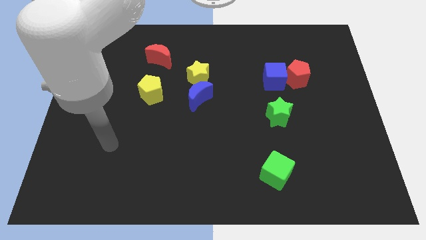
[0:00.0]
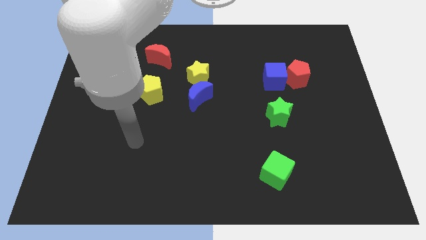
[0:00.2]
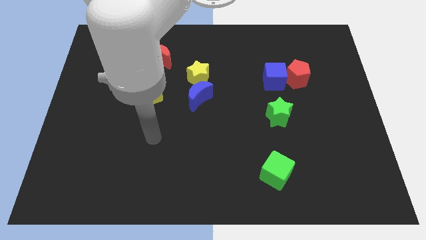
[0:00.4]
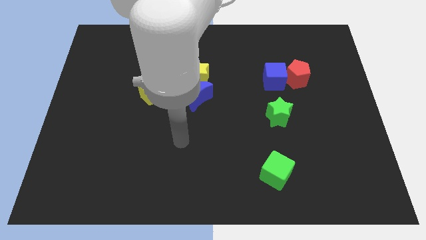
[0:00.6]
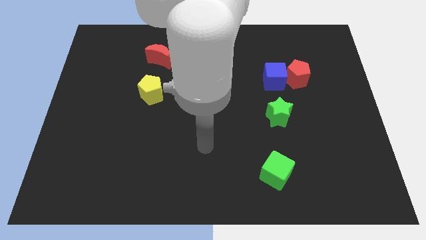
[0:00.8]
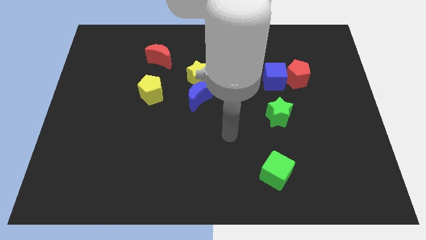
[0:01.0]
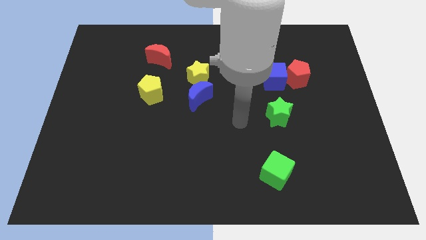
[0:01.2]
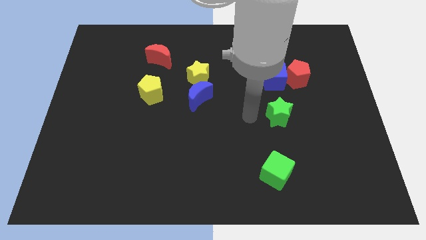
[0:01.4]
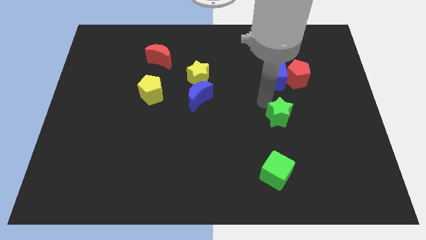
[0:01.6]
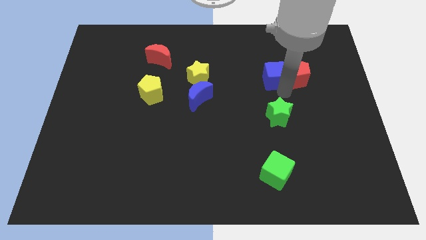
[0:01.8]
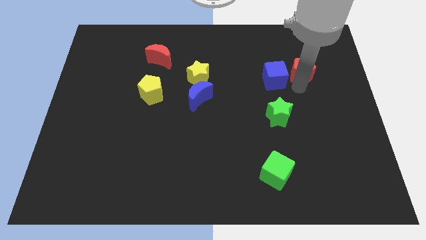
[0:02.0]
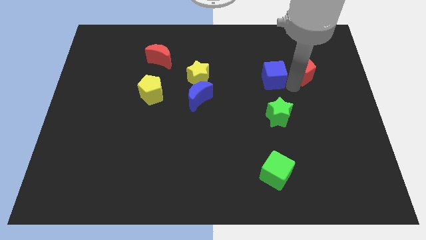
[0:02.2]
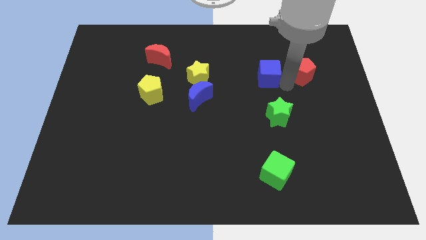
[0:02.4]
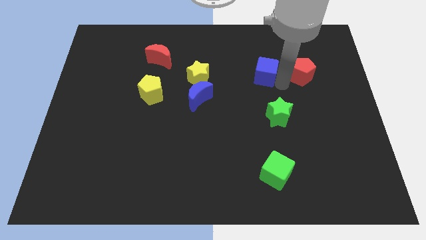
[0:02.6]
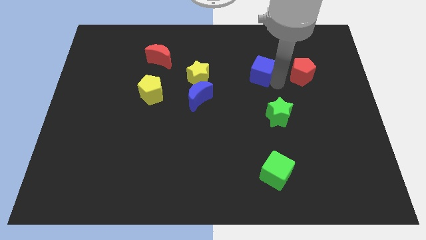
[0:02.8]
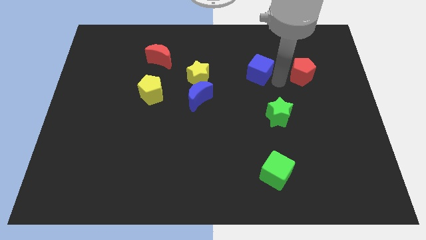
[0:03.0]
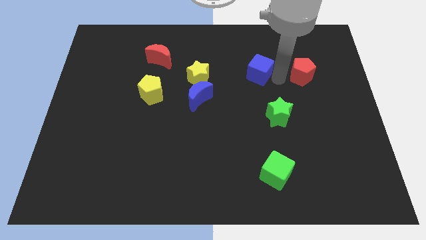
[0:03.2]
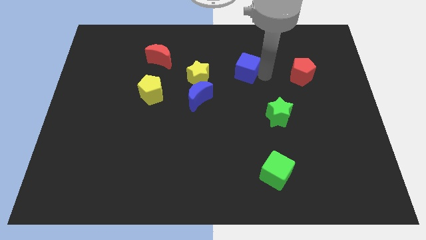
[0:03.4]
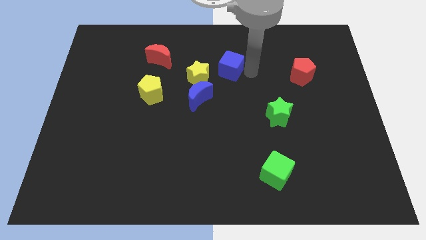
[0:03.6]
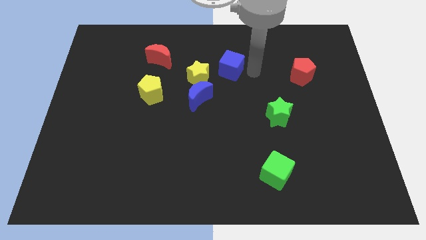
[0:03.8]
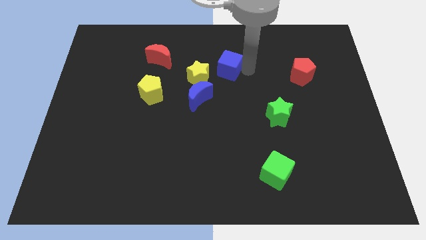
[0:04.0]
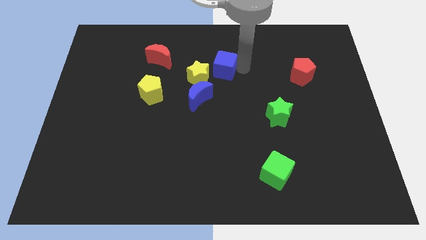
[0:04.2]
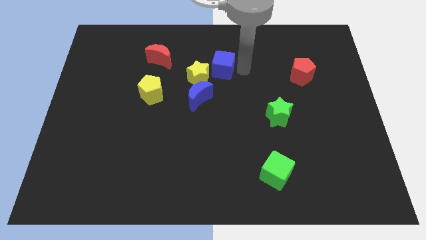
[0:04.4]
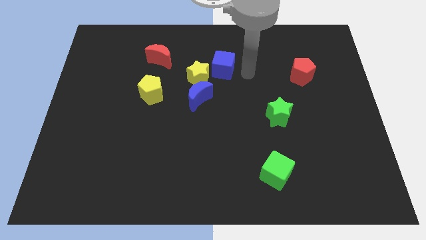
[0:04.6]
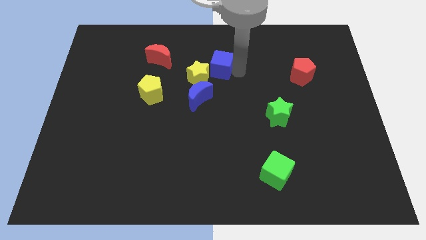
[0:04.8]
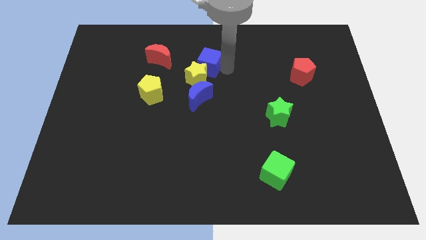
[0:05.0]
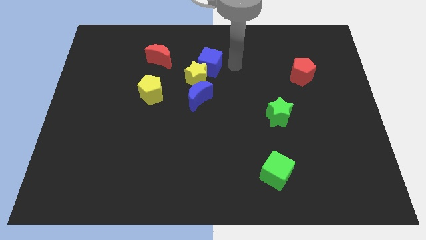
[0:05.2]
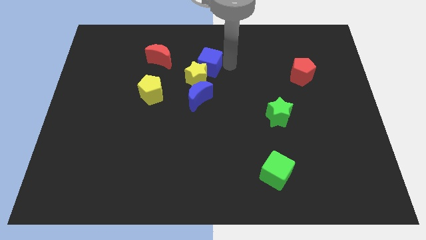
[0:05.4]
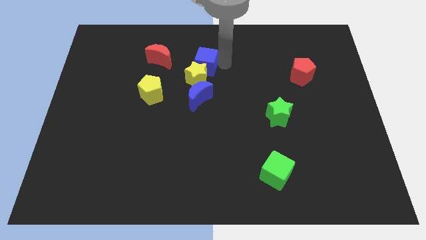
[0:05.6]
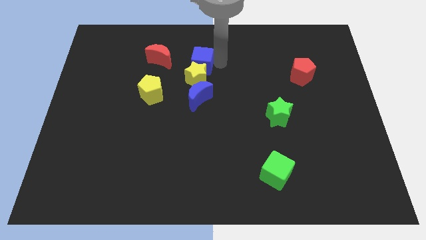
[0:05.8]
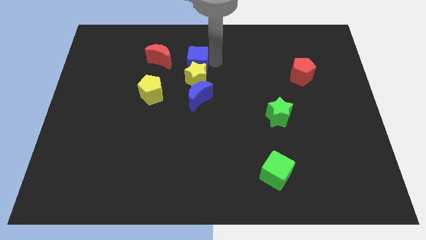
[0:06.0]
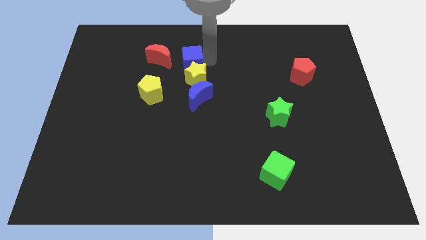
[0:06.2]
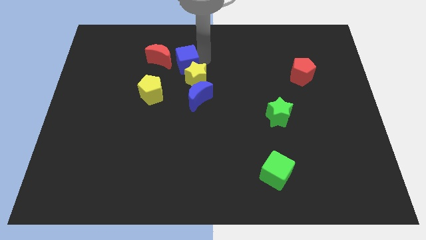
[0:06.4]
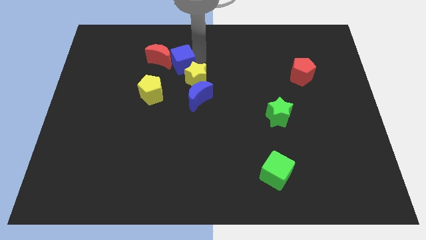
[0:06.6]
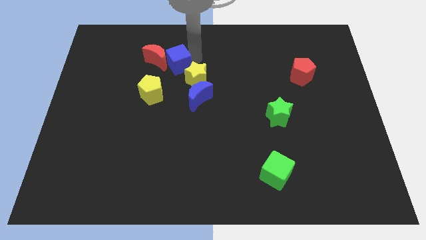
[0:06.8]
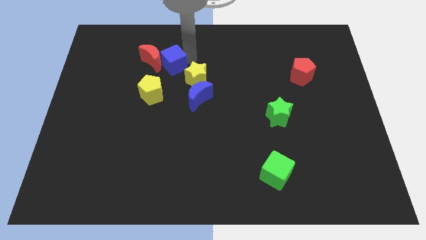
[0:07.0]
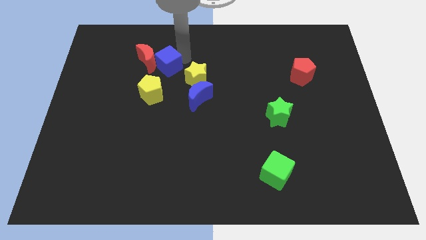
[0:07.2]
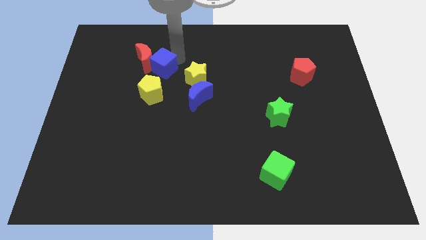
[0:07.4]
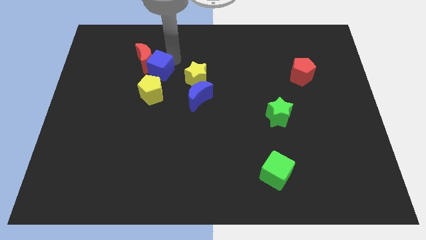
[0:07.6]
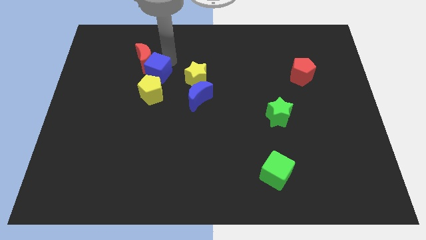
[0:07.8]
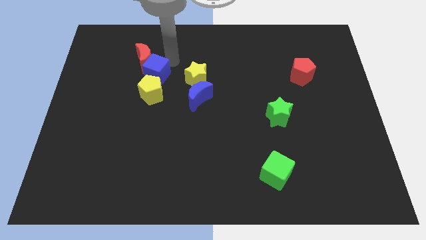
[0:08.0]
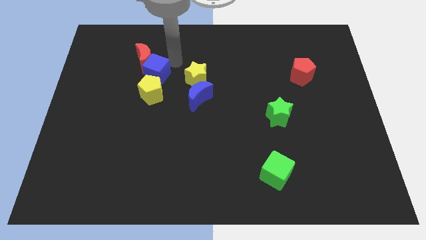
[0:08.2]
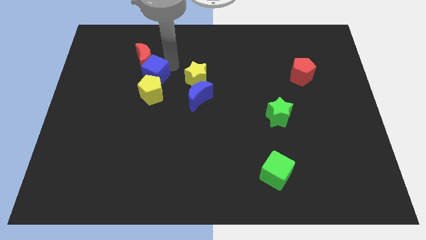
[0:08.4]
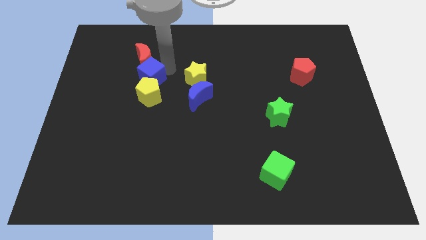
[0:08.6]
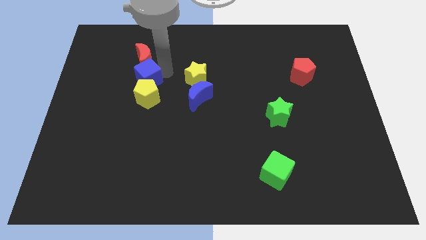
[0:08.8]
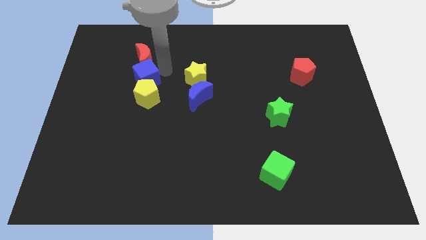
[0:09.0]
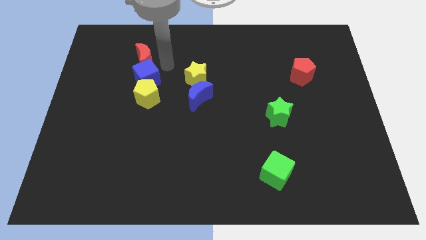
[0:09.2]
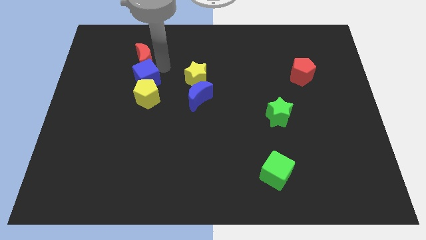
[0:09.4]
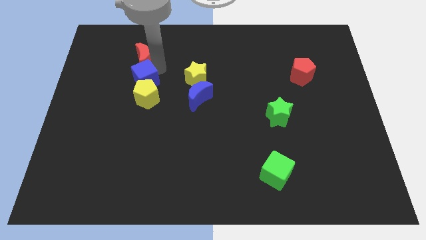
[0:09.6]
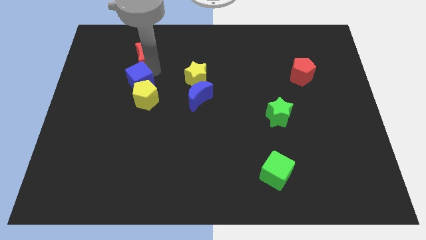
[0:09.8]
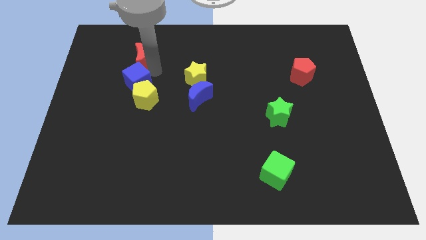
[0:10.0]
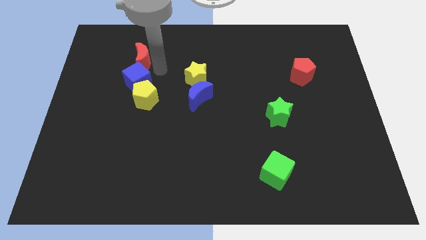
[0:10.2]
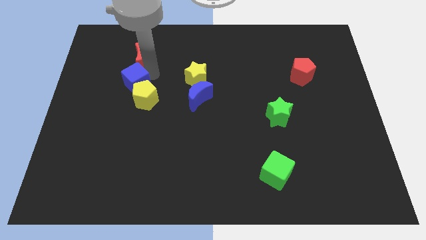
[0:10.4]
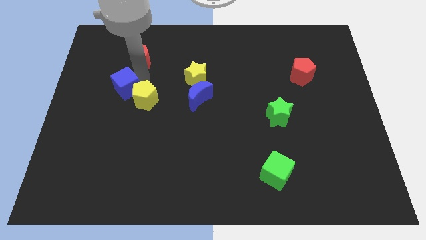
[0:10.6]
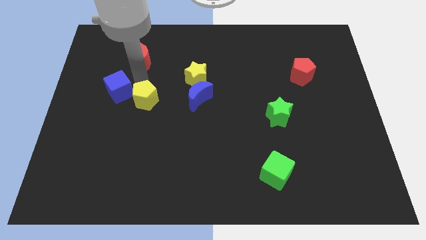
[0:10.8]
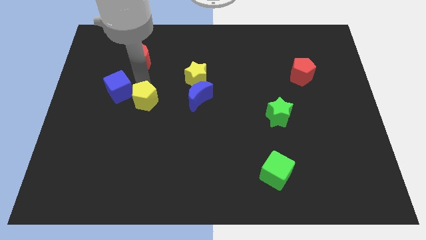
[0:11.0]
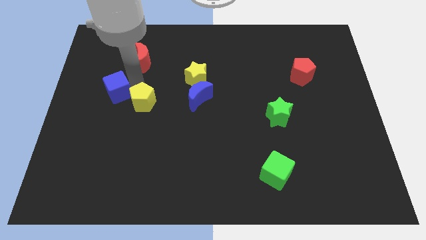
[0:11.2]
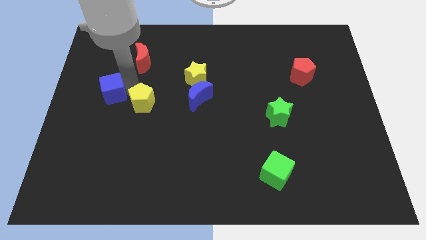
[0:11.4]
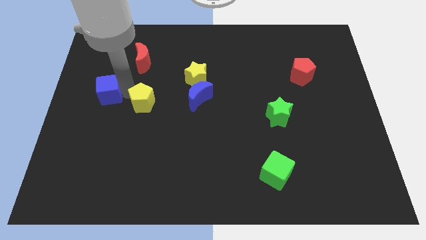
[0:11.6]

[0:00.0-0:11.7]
push the blue cube to the center left

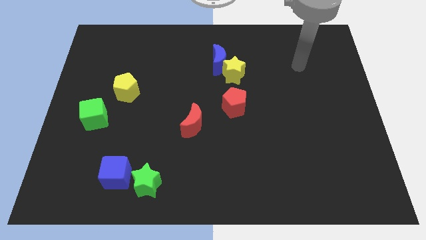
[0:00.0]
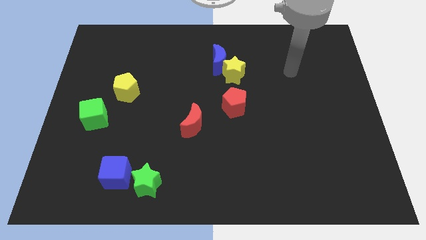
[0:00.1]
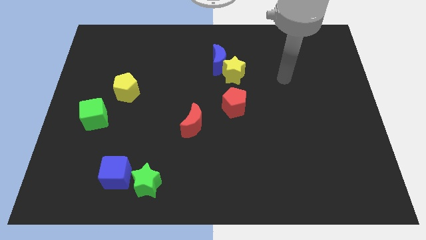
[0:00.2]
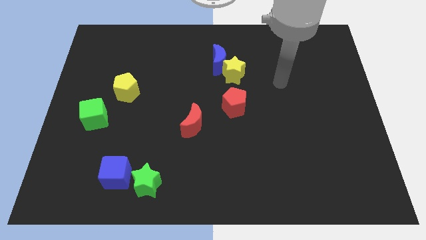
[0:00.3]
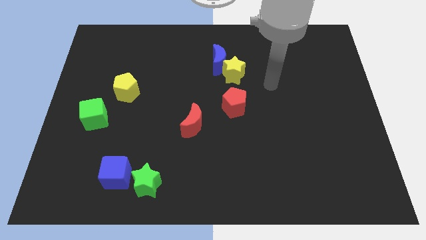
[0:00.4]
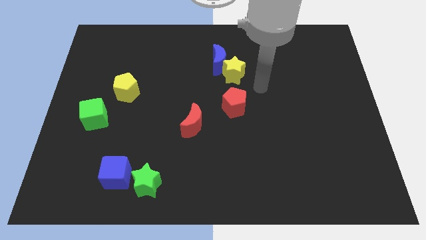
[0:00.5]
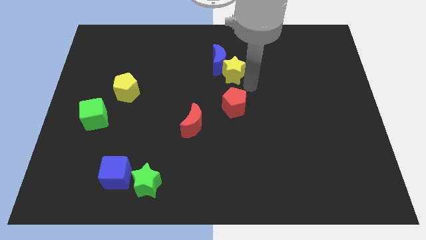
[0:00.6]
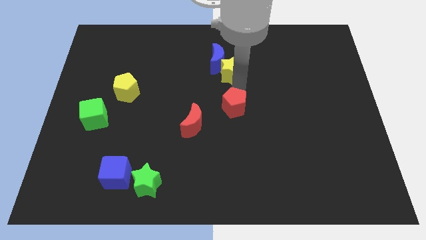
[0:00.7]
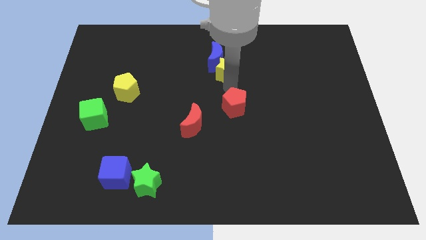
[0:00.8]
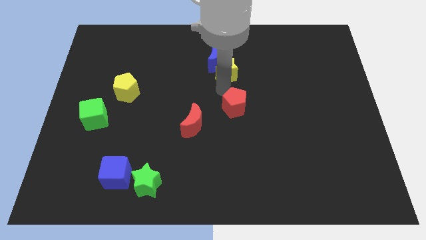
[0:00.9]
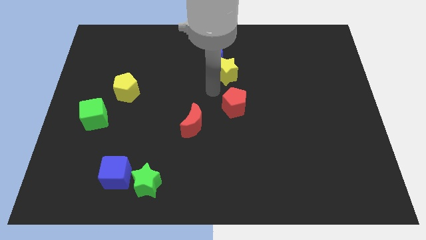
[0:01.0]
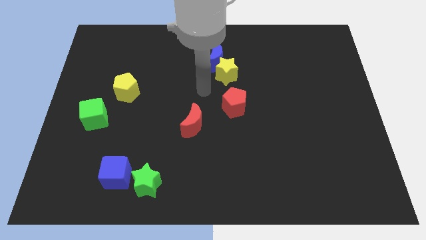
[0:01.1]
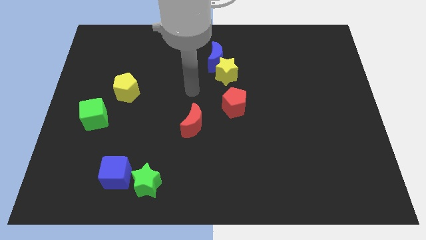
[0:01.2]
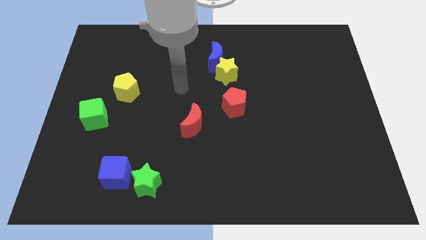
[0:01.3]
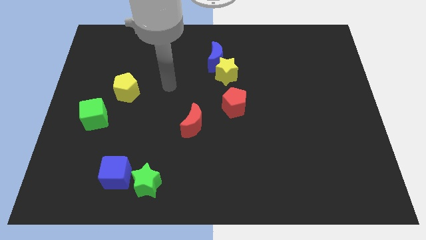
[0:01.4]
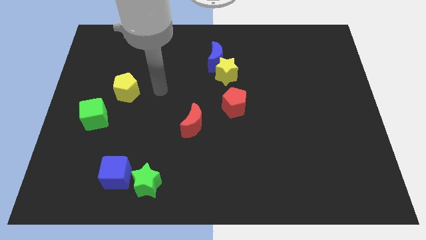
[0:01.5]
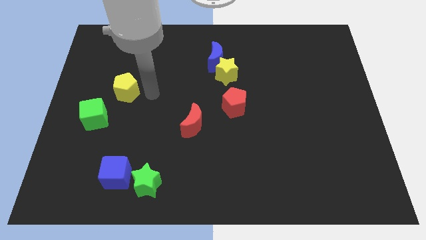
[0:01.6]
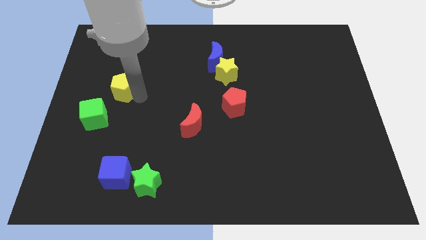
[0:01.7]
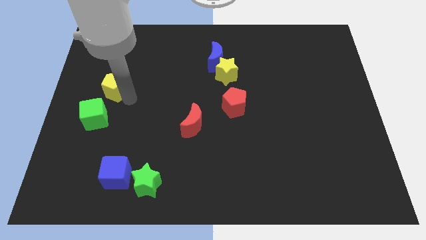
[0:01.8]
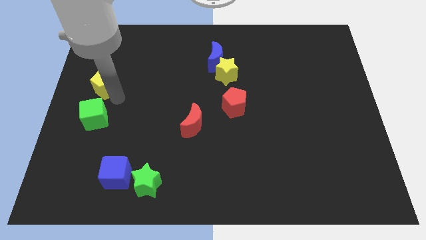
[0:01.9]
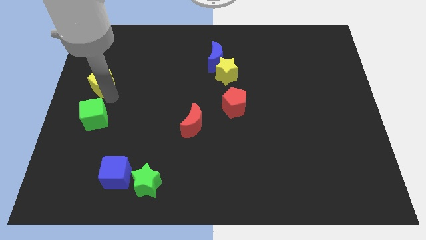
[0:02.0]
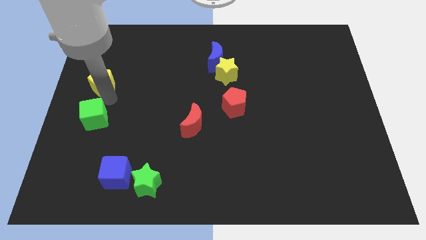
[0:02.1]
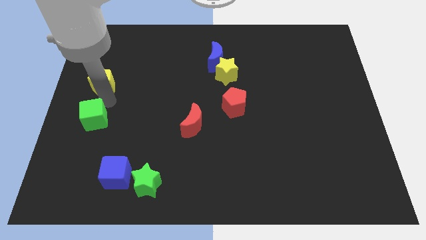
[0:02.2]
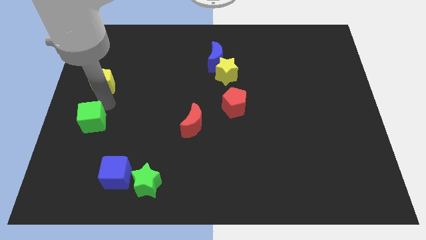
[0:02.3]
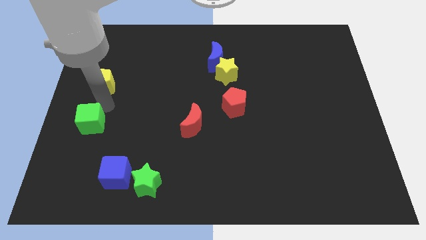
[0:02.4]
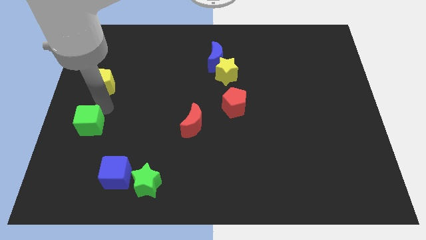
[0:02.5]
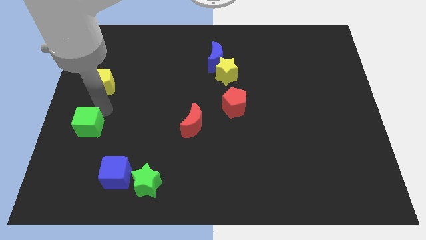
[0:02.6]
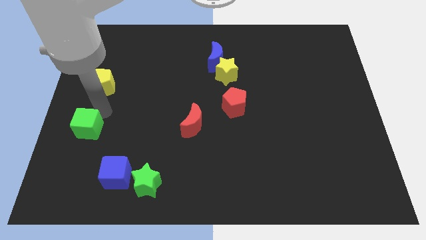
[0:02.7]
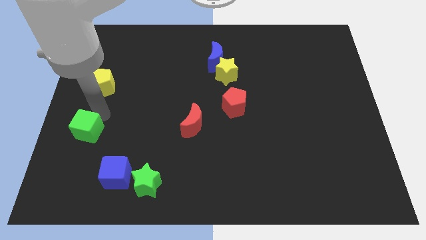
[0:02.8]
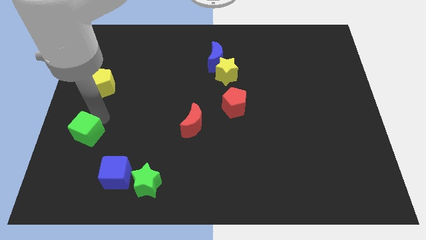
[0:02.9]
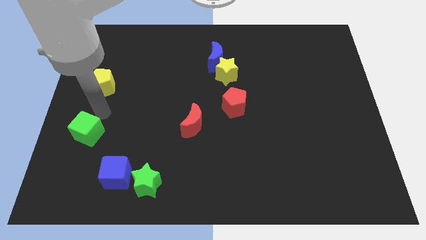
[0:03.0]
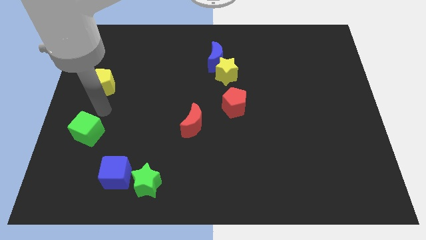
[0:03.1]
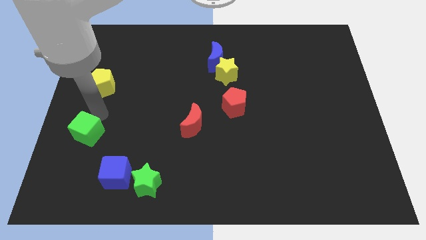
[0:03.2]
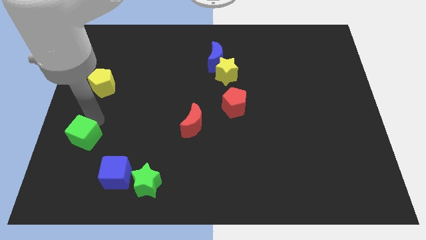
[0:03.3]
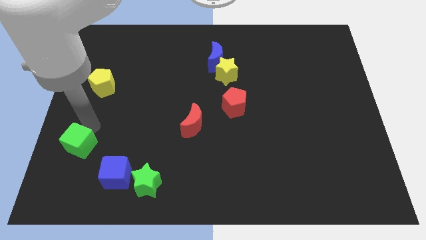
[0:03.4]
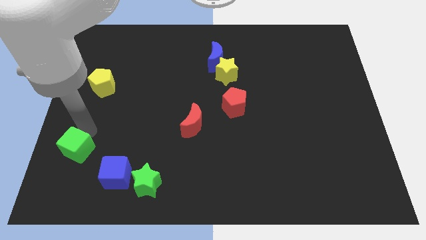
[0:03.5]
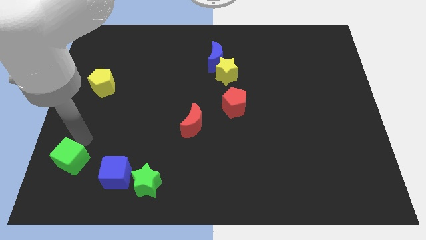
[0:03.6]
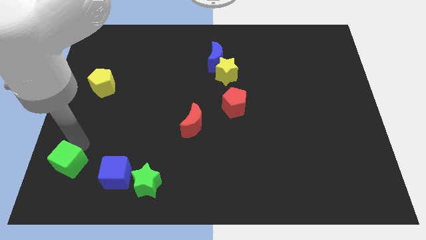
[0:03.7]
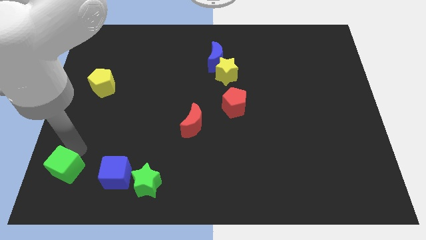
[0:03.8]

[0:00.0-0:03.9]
move the green cube to the bottom left of the board
